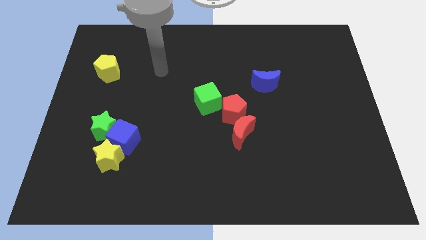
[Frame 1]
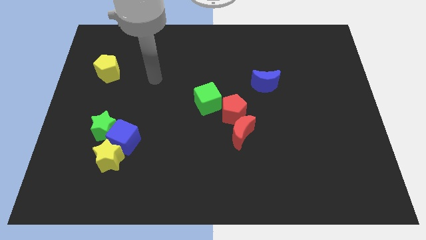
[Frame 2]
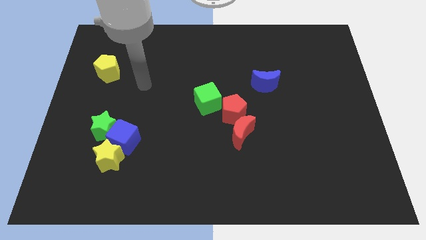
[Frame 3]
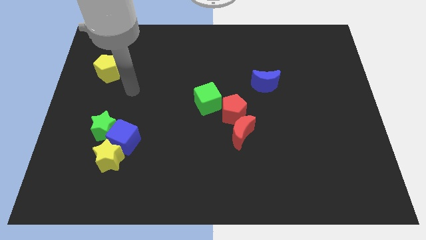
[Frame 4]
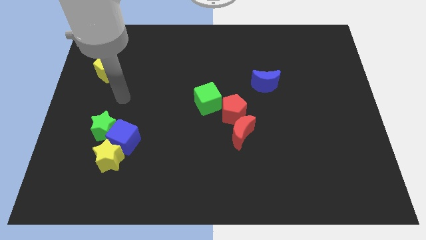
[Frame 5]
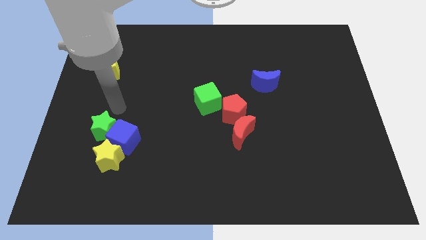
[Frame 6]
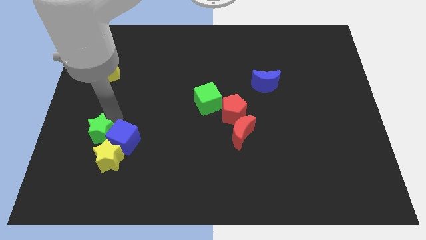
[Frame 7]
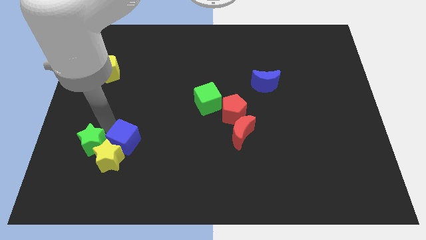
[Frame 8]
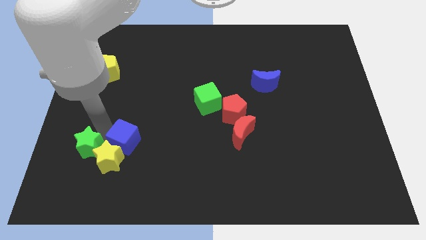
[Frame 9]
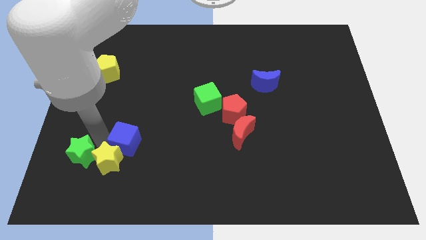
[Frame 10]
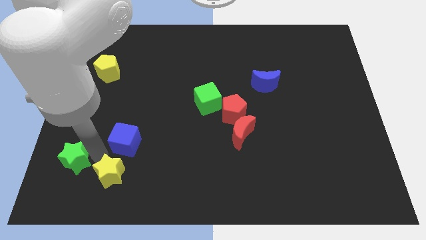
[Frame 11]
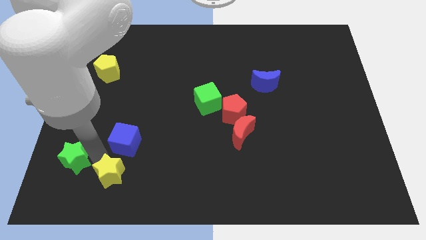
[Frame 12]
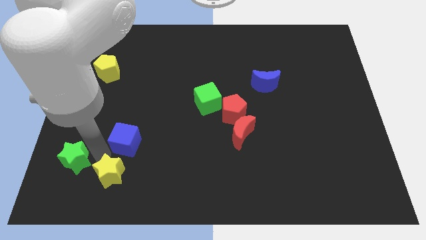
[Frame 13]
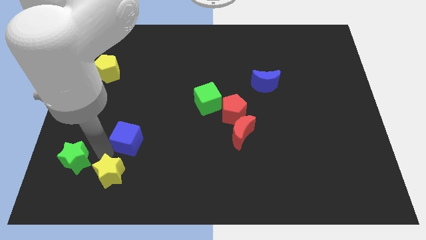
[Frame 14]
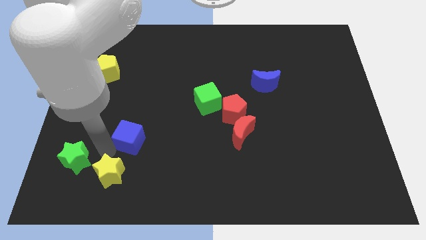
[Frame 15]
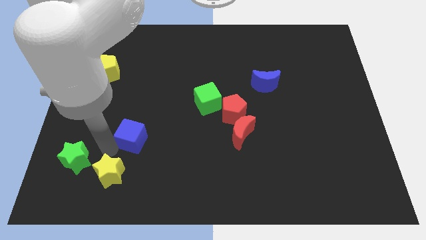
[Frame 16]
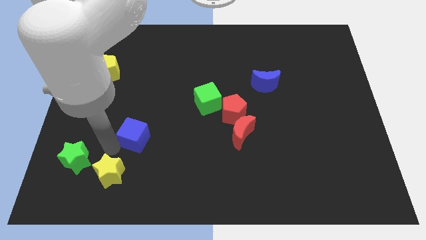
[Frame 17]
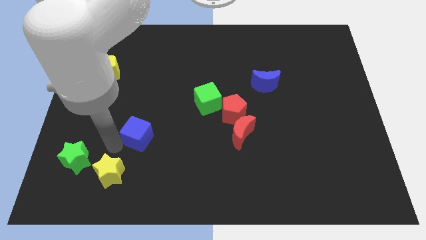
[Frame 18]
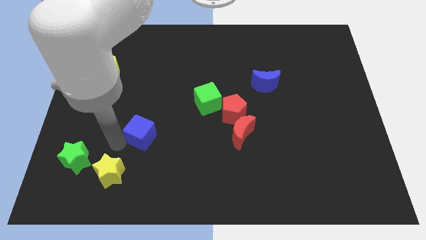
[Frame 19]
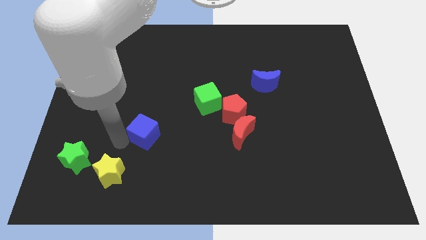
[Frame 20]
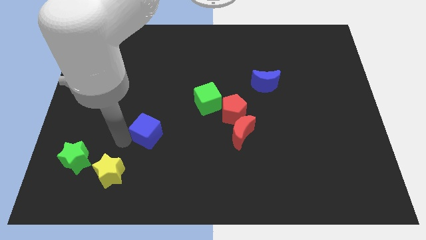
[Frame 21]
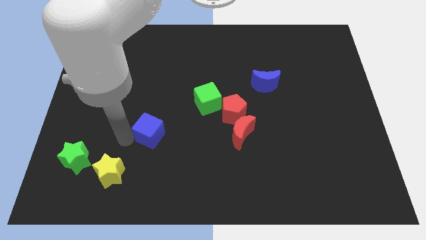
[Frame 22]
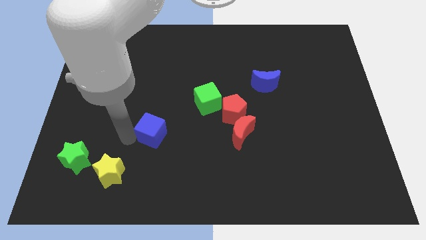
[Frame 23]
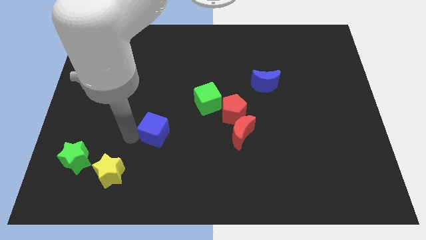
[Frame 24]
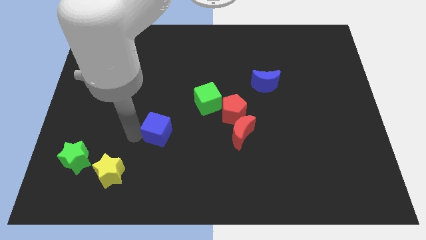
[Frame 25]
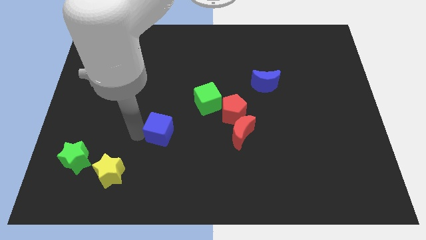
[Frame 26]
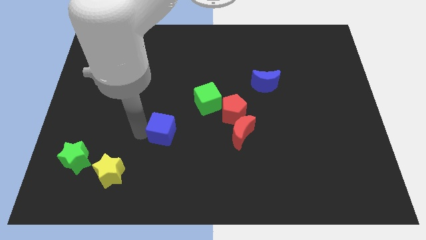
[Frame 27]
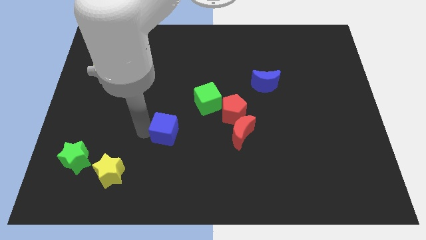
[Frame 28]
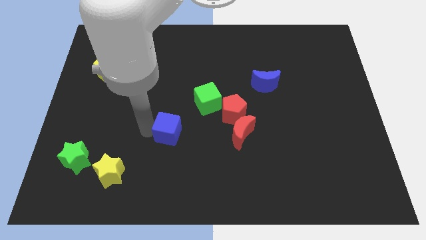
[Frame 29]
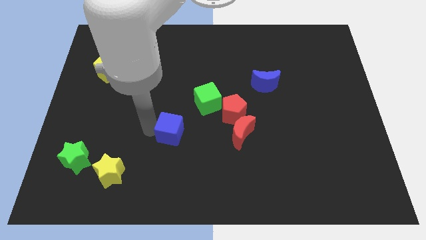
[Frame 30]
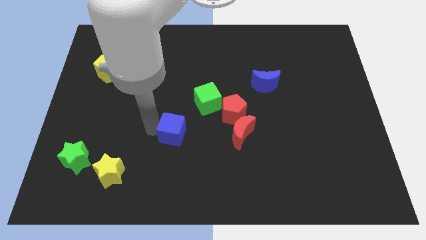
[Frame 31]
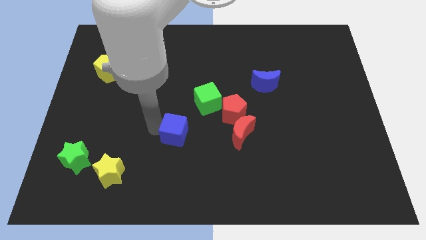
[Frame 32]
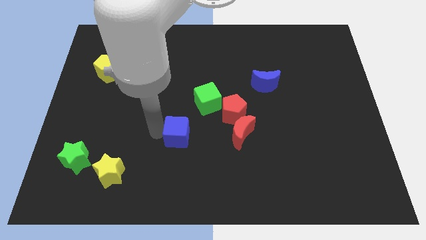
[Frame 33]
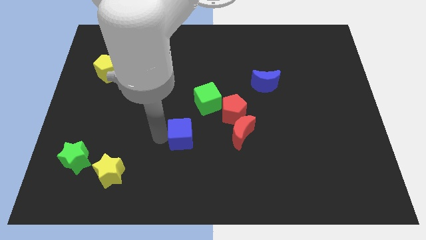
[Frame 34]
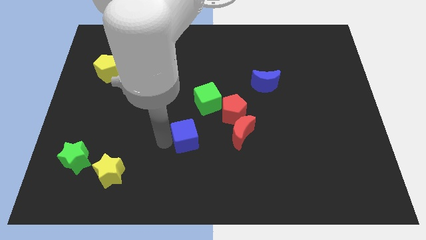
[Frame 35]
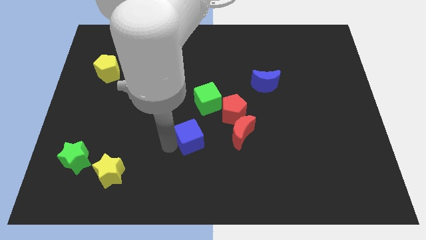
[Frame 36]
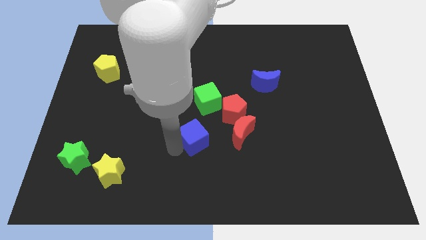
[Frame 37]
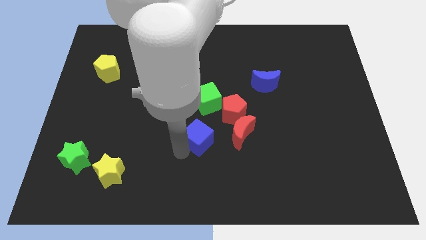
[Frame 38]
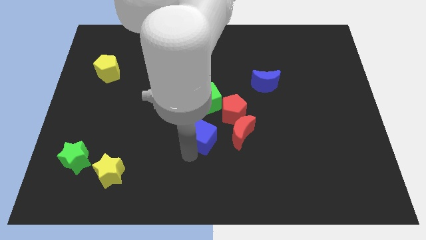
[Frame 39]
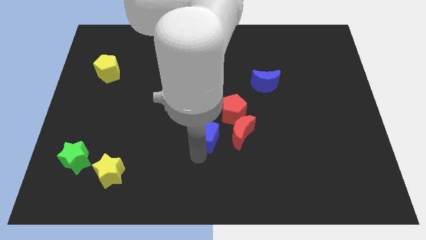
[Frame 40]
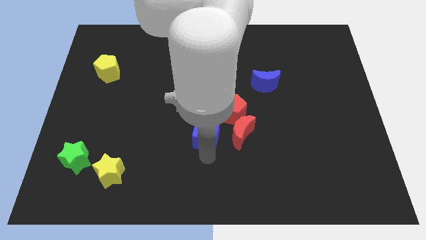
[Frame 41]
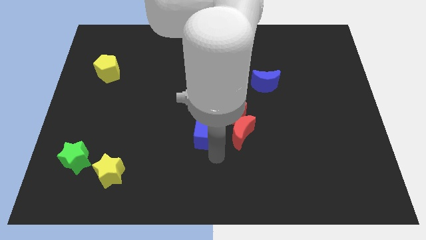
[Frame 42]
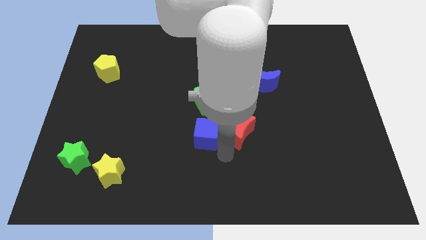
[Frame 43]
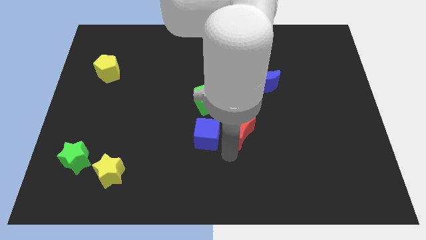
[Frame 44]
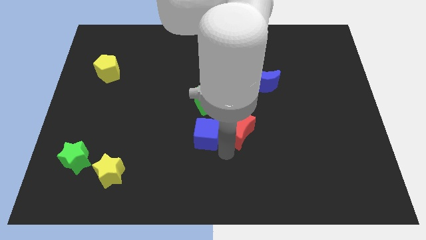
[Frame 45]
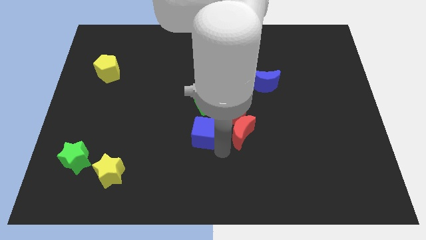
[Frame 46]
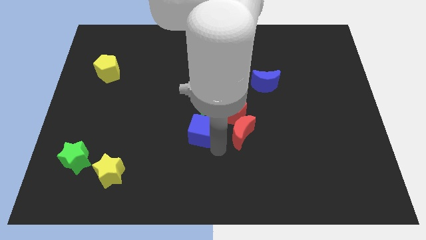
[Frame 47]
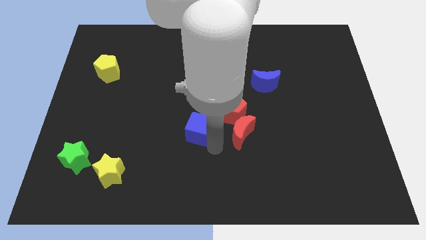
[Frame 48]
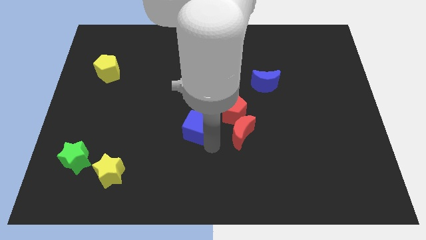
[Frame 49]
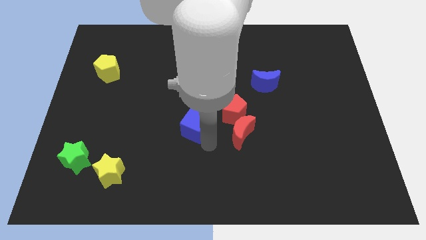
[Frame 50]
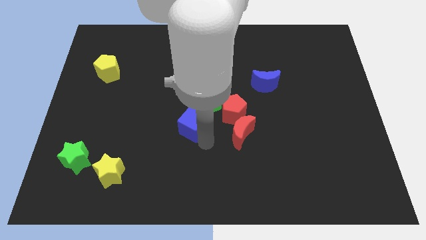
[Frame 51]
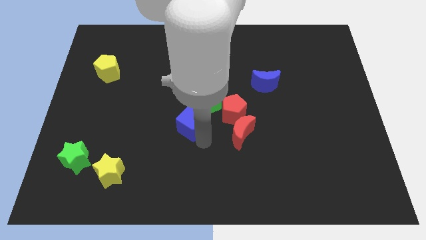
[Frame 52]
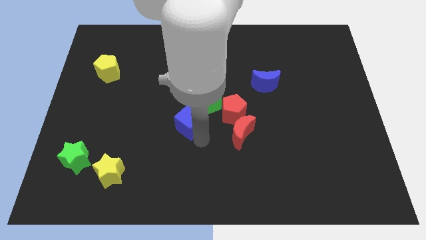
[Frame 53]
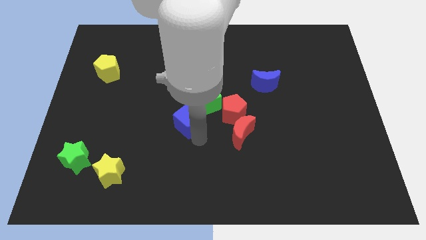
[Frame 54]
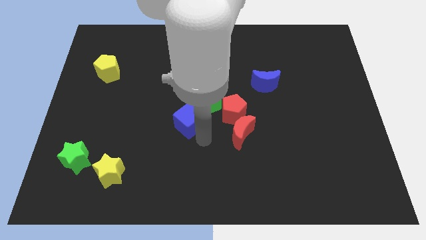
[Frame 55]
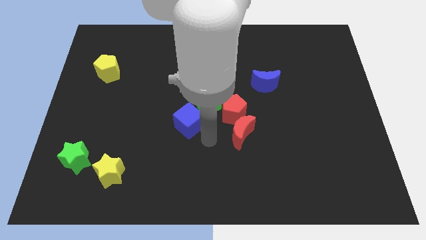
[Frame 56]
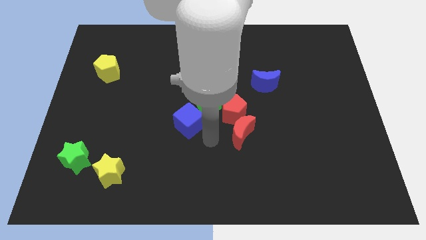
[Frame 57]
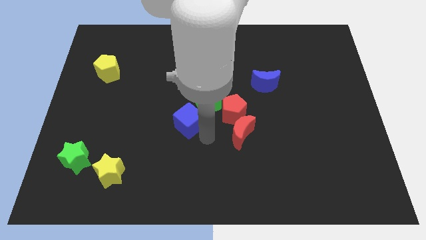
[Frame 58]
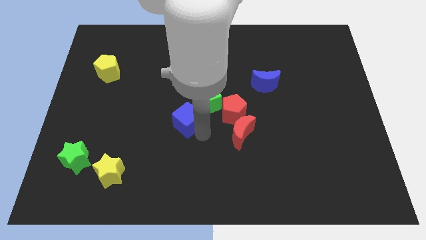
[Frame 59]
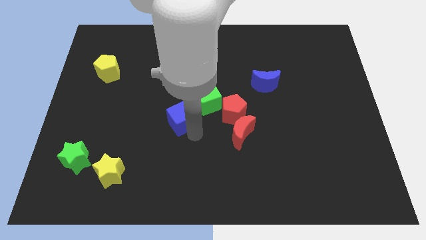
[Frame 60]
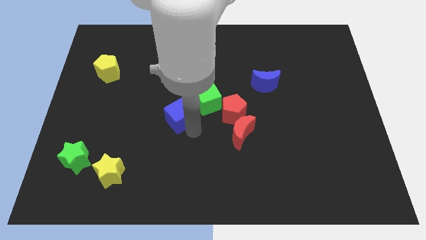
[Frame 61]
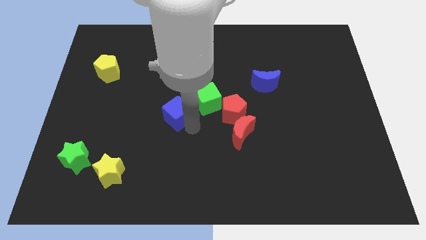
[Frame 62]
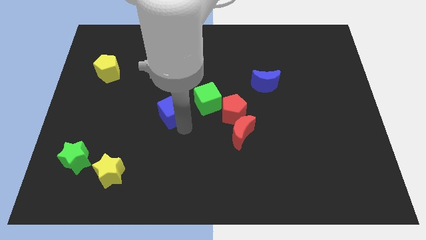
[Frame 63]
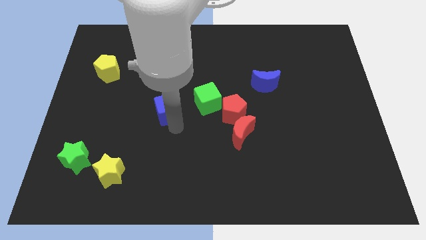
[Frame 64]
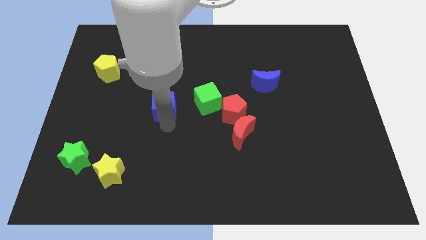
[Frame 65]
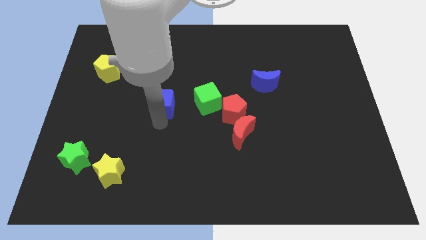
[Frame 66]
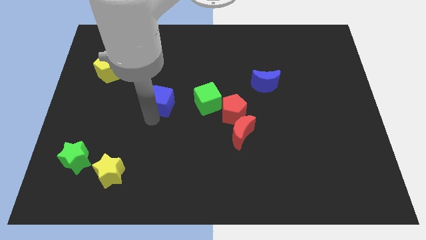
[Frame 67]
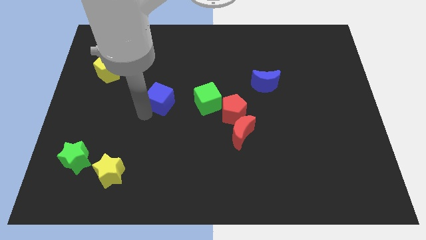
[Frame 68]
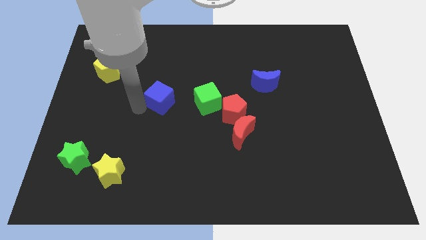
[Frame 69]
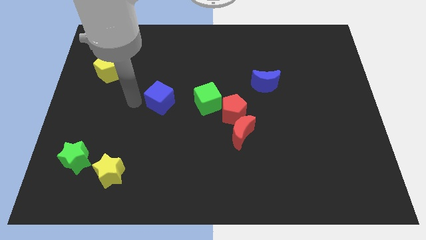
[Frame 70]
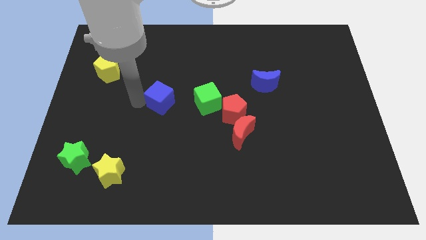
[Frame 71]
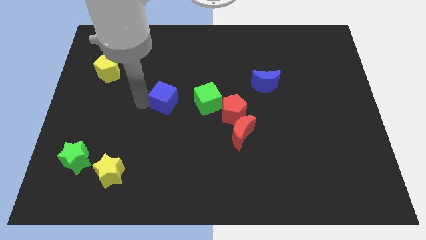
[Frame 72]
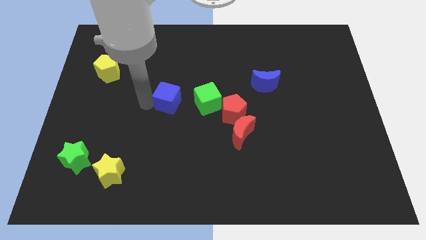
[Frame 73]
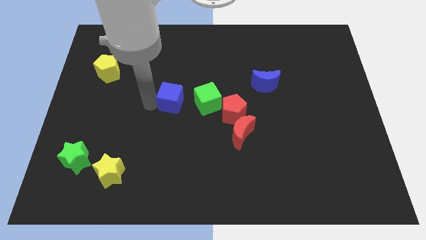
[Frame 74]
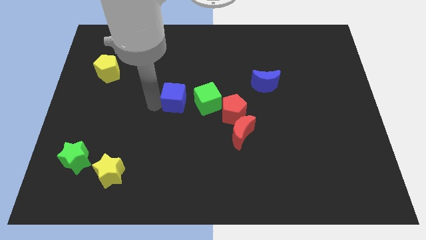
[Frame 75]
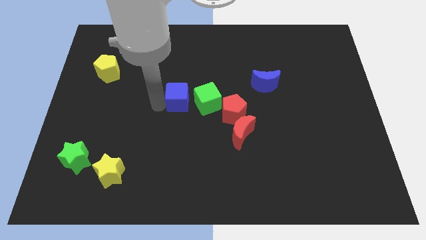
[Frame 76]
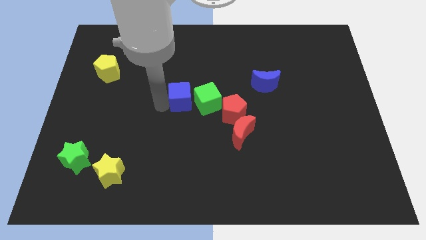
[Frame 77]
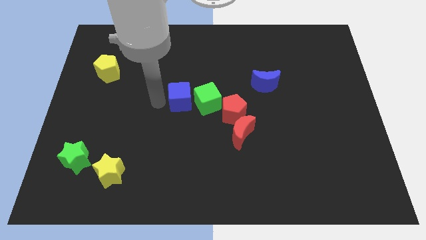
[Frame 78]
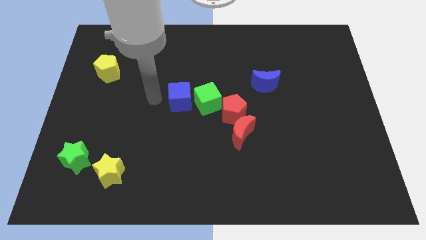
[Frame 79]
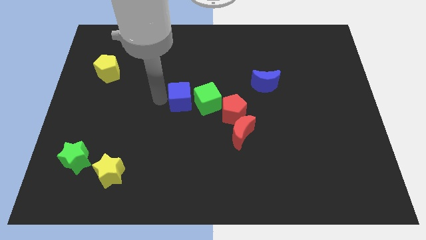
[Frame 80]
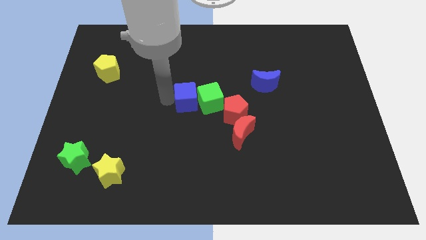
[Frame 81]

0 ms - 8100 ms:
put the blue cube next to the green cube
